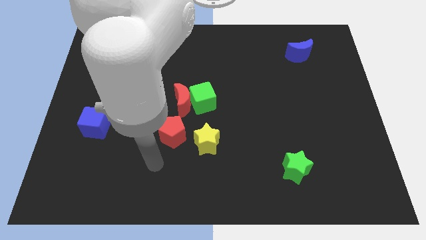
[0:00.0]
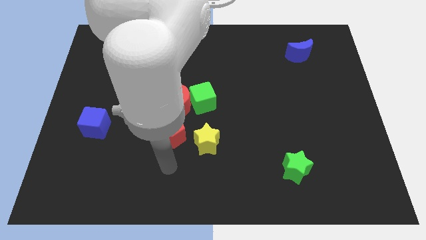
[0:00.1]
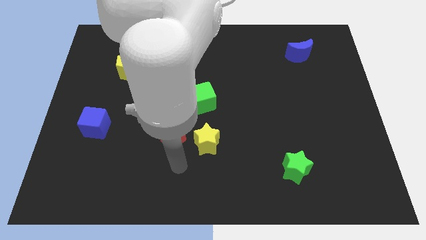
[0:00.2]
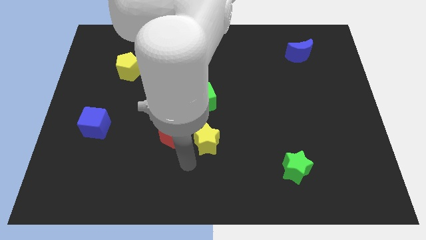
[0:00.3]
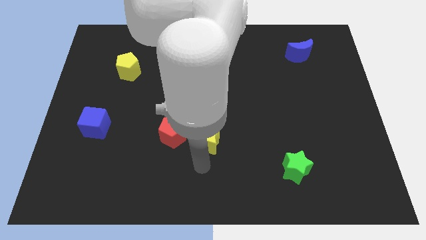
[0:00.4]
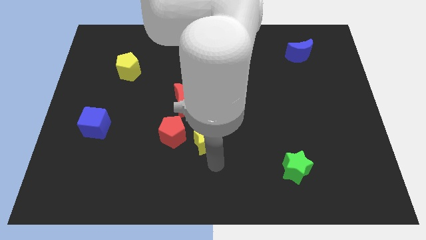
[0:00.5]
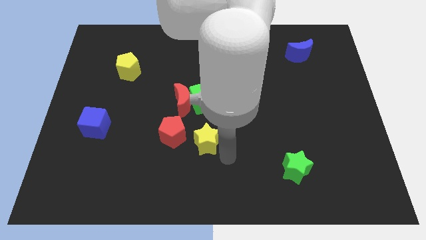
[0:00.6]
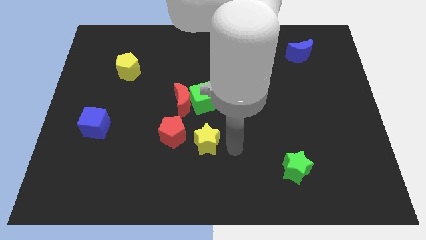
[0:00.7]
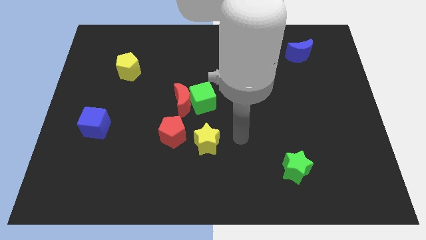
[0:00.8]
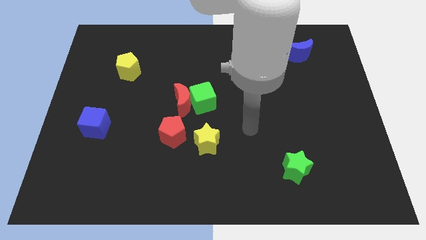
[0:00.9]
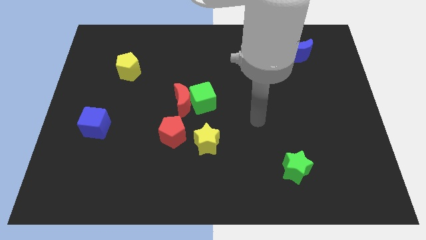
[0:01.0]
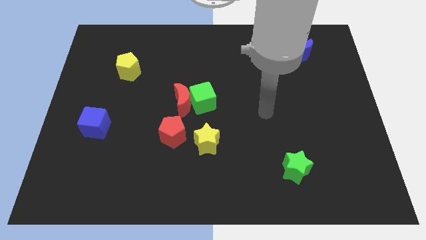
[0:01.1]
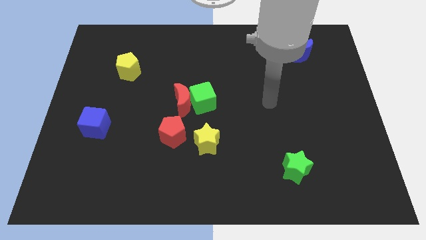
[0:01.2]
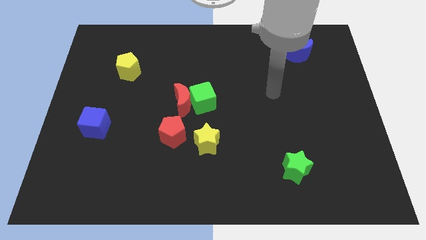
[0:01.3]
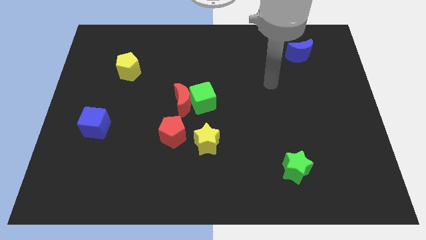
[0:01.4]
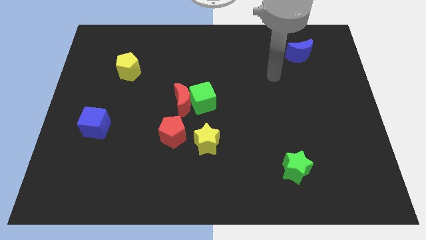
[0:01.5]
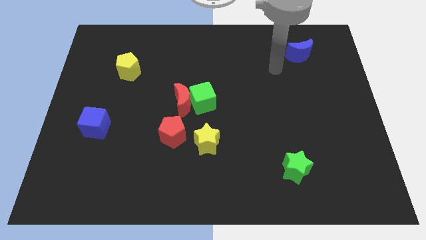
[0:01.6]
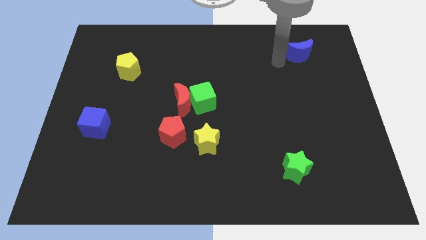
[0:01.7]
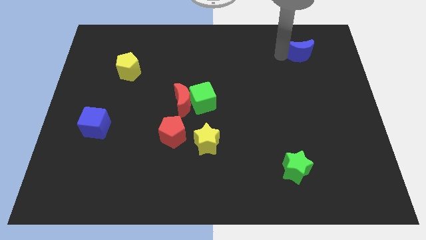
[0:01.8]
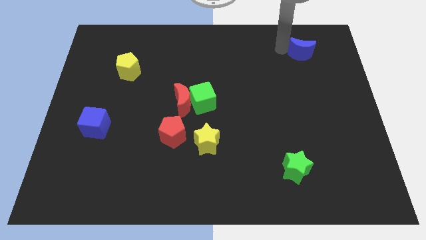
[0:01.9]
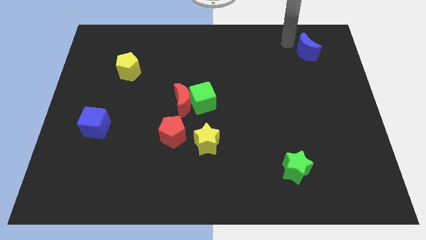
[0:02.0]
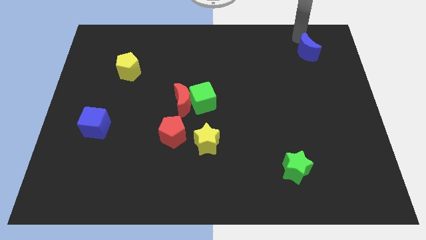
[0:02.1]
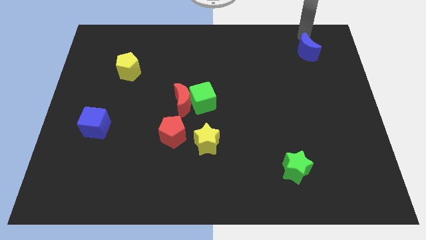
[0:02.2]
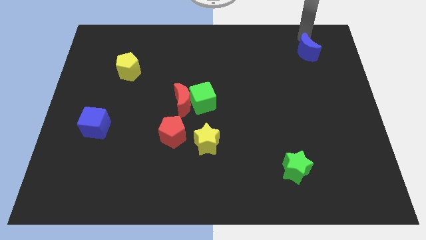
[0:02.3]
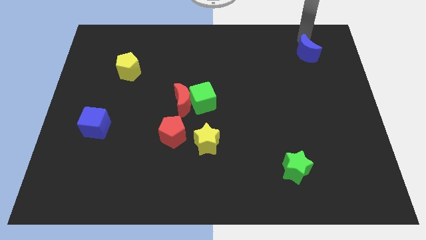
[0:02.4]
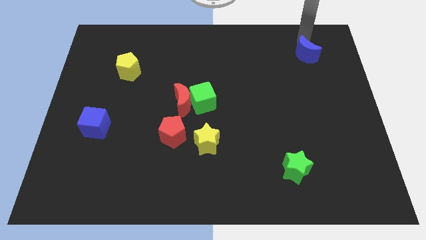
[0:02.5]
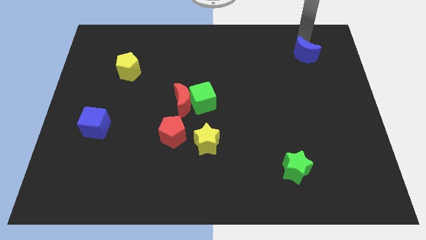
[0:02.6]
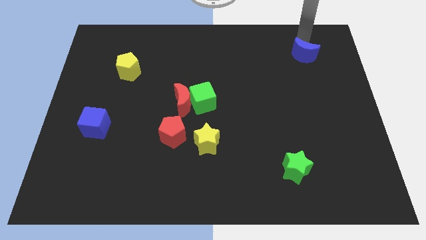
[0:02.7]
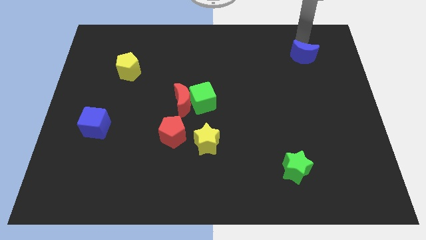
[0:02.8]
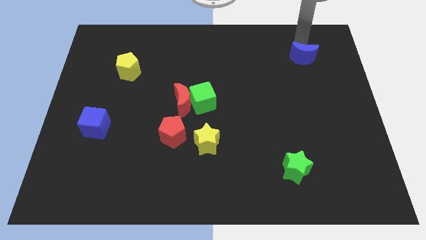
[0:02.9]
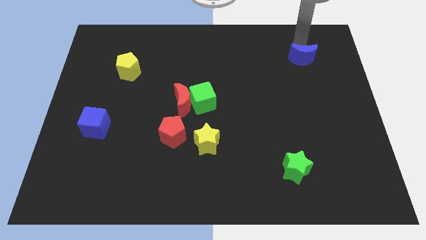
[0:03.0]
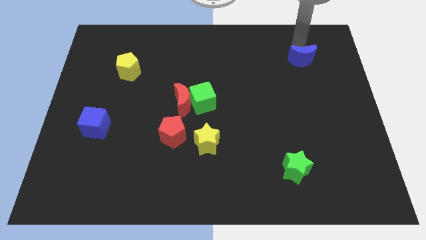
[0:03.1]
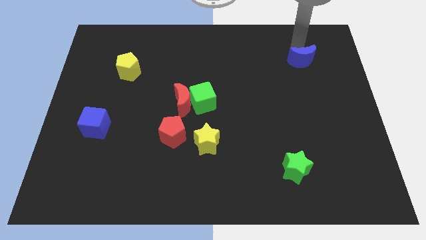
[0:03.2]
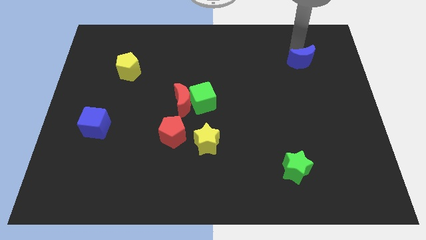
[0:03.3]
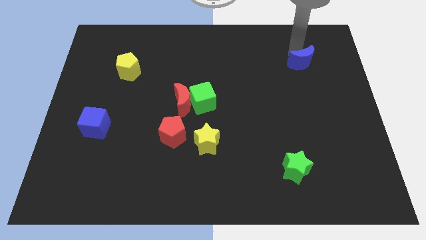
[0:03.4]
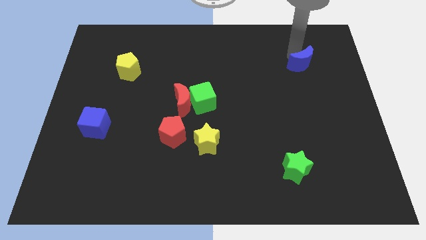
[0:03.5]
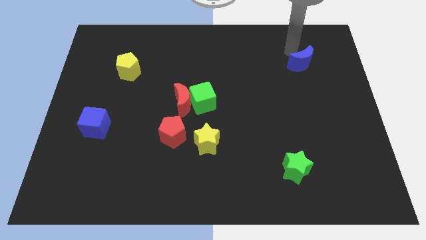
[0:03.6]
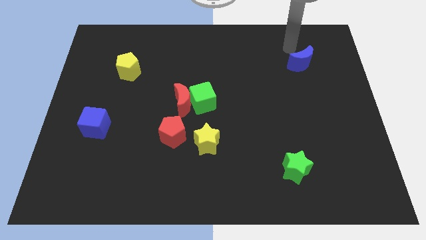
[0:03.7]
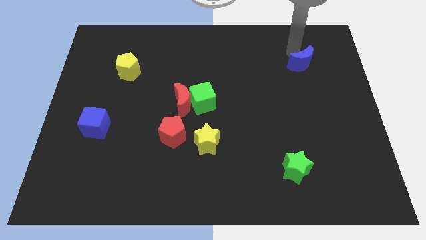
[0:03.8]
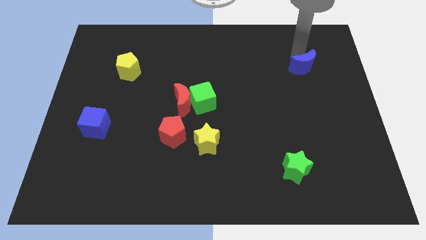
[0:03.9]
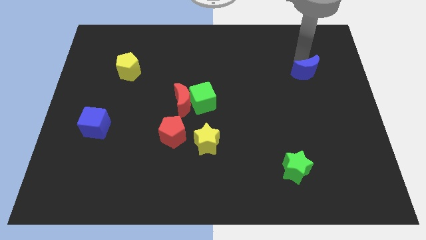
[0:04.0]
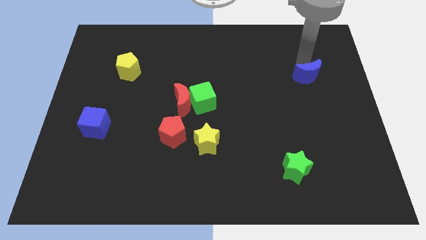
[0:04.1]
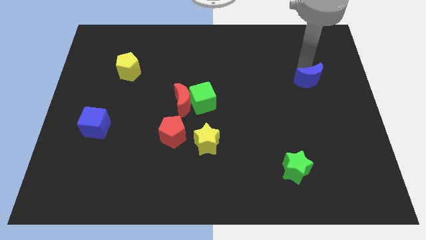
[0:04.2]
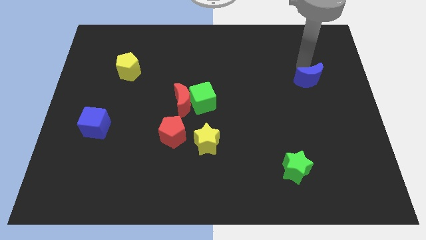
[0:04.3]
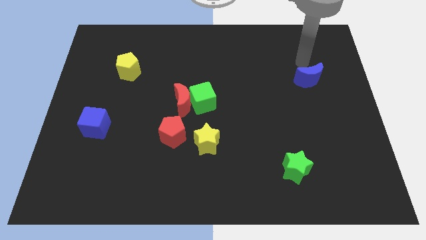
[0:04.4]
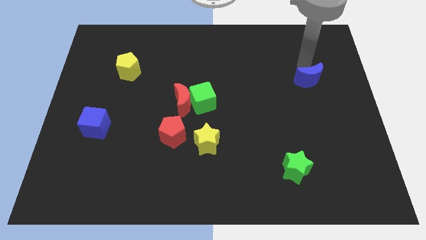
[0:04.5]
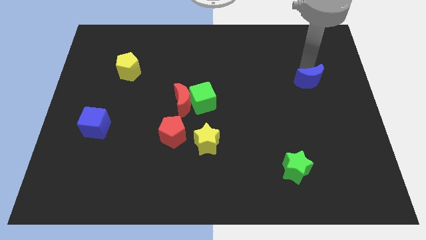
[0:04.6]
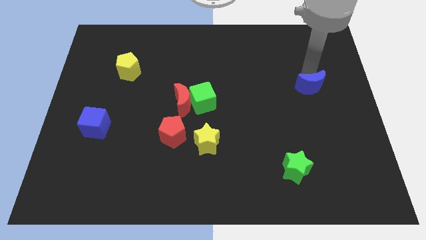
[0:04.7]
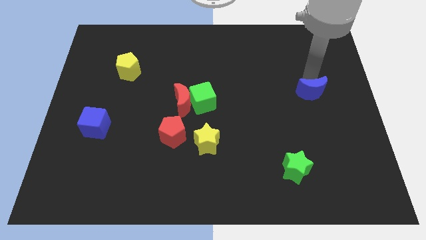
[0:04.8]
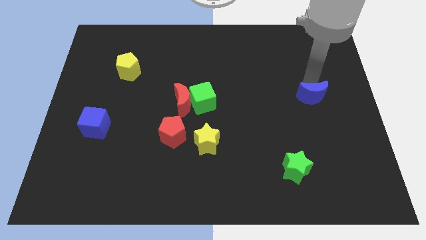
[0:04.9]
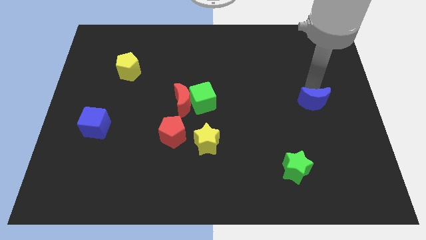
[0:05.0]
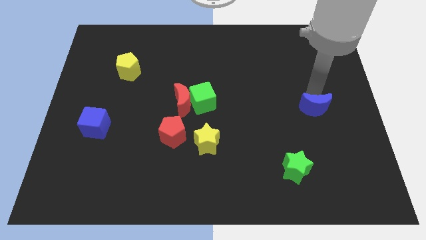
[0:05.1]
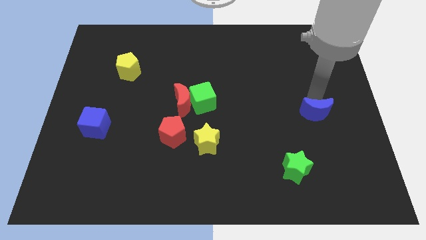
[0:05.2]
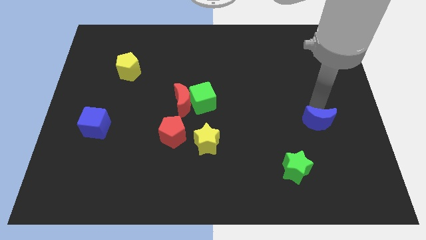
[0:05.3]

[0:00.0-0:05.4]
slide the blue moon down

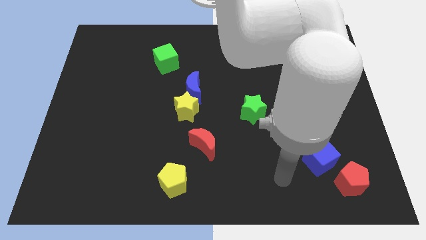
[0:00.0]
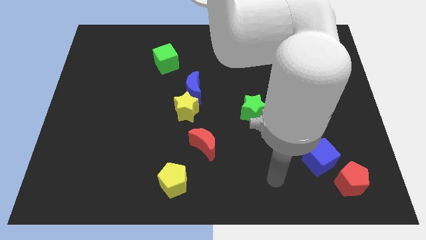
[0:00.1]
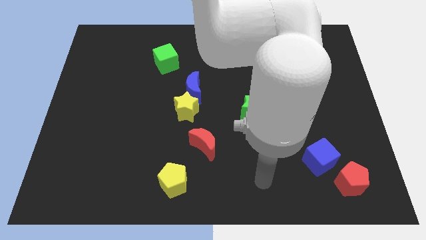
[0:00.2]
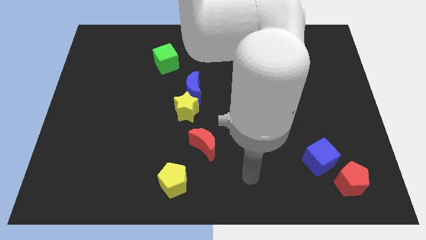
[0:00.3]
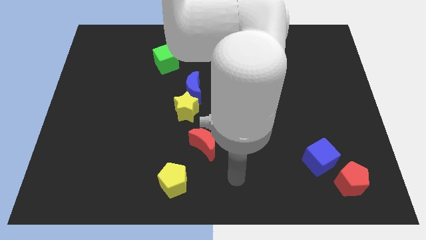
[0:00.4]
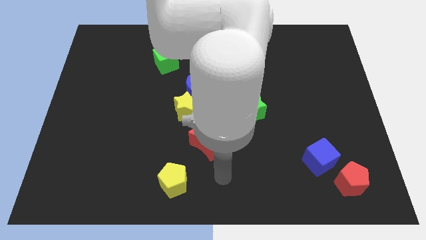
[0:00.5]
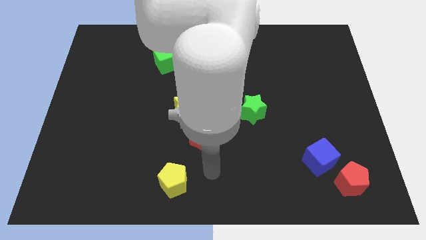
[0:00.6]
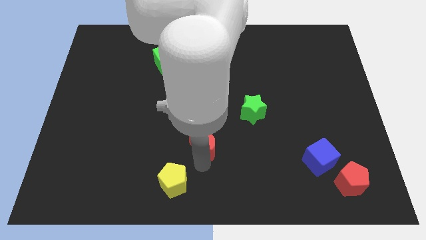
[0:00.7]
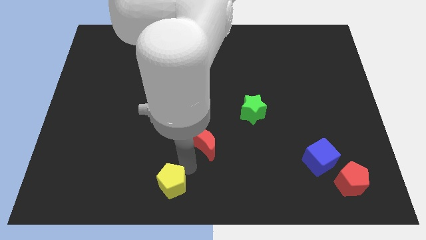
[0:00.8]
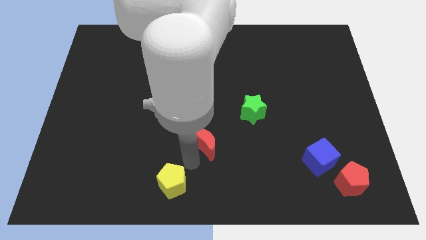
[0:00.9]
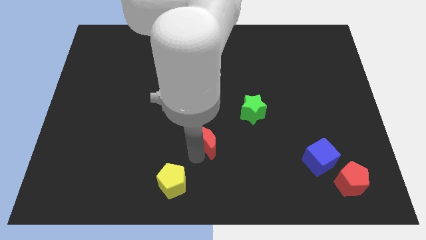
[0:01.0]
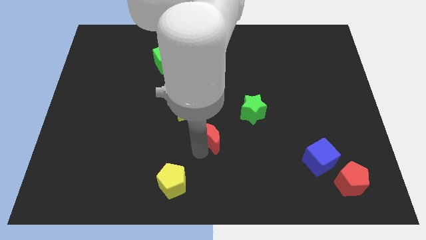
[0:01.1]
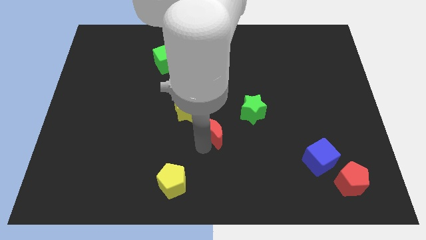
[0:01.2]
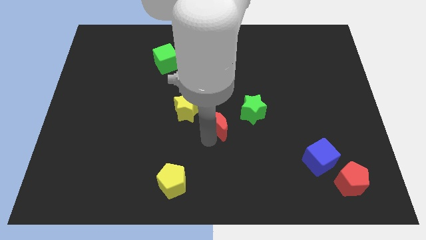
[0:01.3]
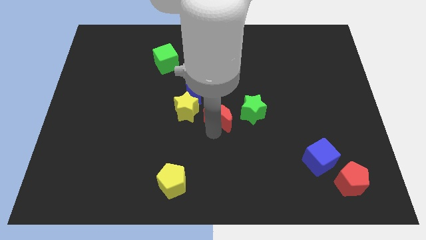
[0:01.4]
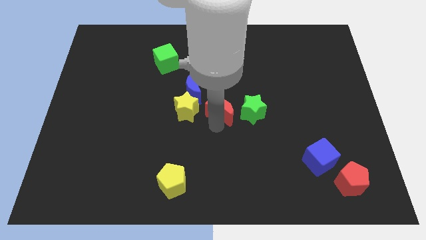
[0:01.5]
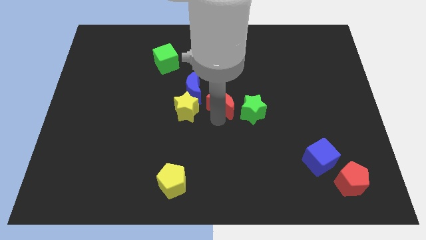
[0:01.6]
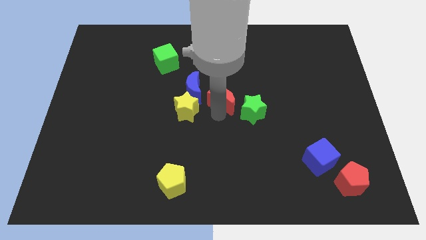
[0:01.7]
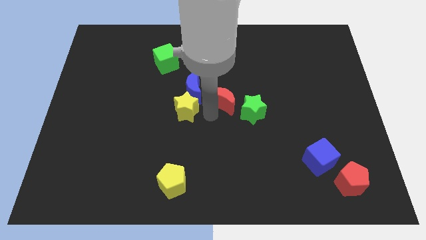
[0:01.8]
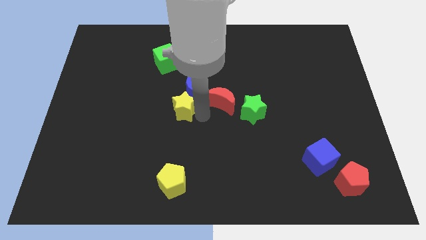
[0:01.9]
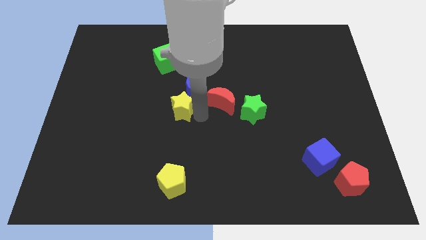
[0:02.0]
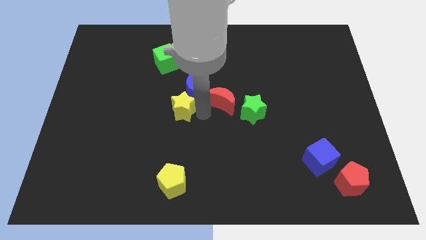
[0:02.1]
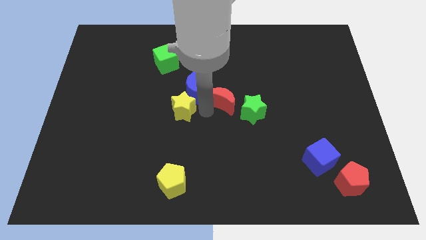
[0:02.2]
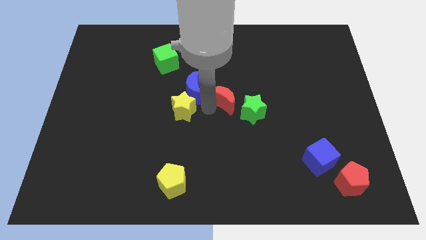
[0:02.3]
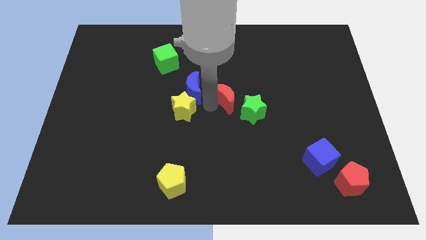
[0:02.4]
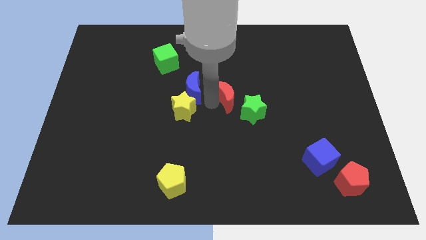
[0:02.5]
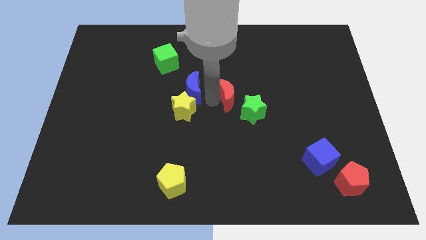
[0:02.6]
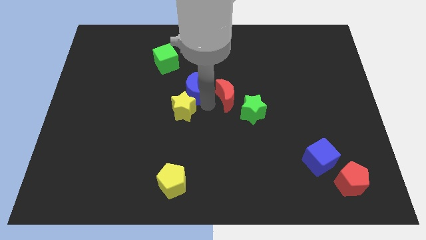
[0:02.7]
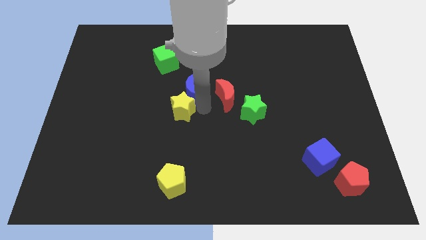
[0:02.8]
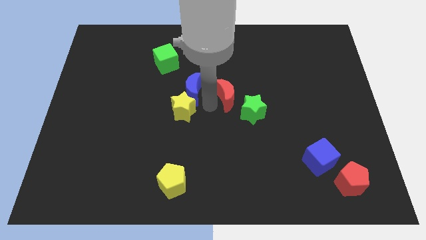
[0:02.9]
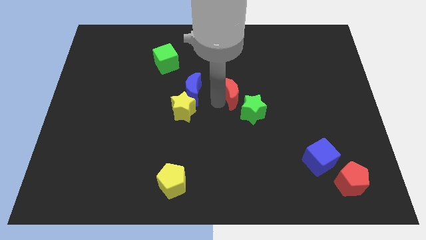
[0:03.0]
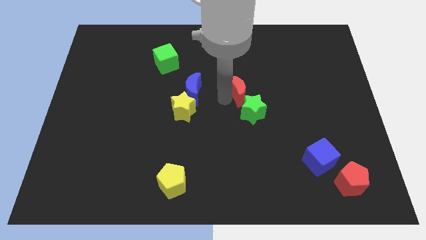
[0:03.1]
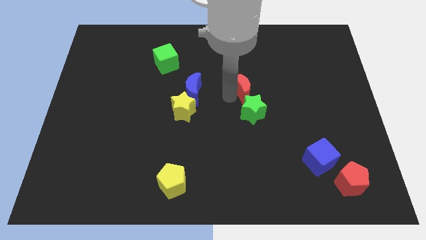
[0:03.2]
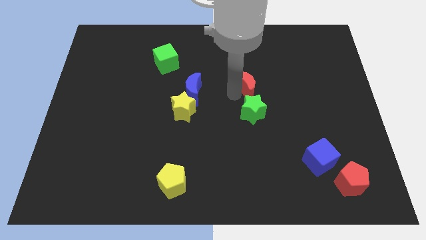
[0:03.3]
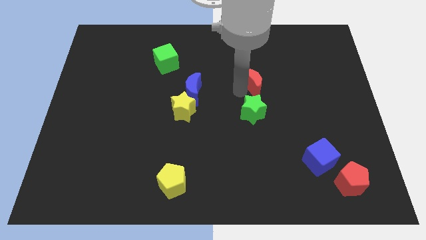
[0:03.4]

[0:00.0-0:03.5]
slide the red moon up and then to the right
